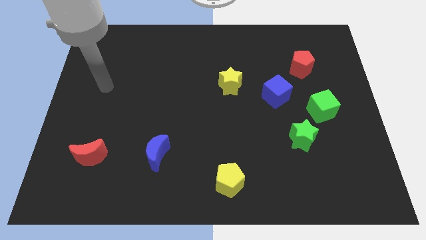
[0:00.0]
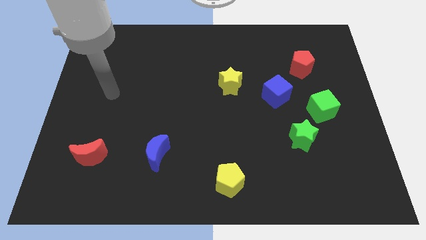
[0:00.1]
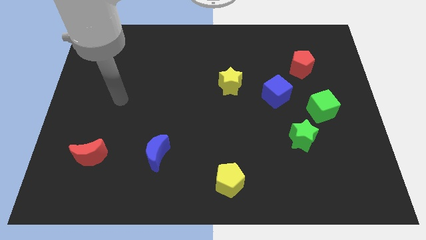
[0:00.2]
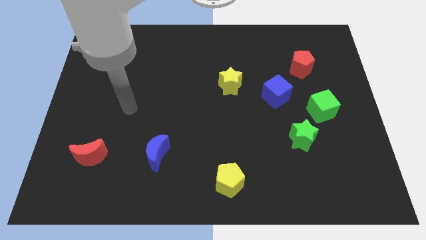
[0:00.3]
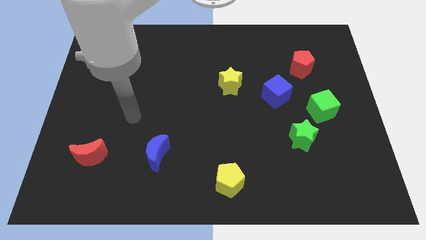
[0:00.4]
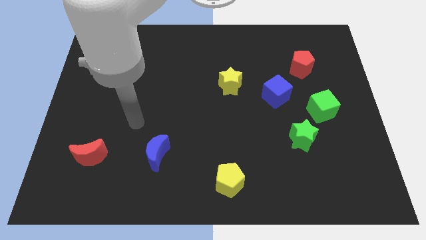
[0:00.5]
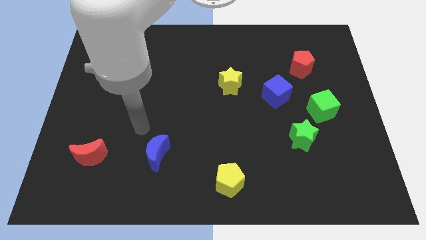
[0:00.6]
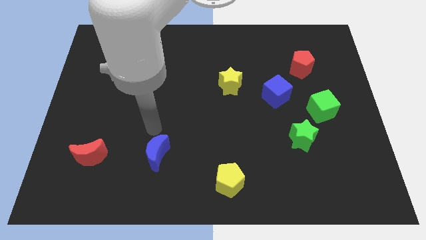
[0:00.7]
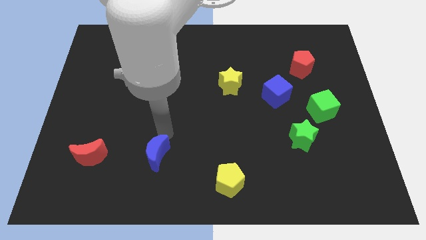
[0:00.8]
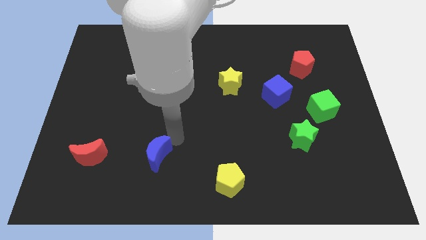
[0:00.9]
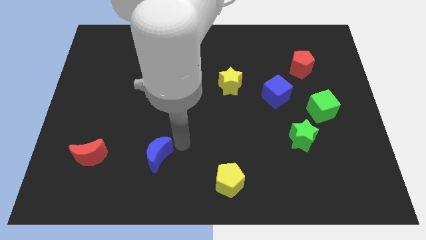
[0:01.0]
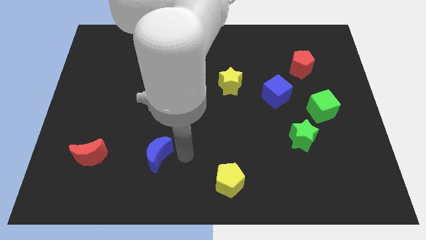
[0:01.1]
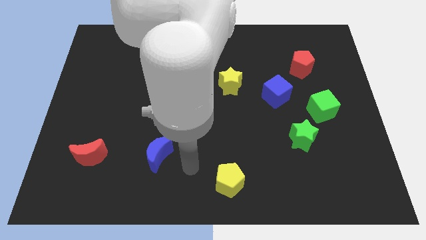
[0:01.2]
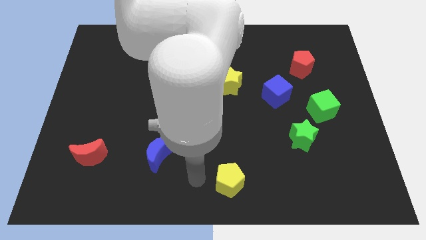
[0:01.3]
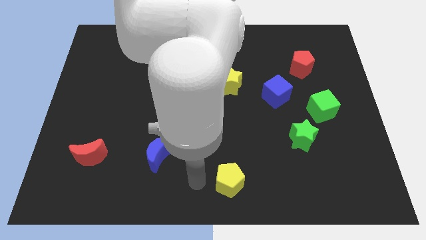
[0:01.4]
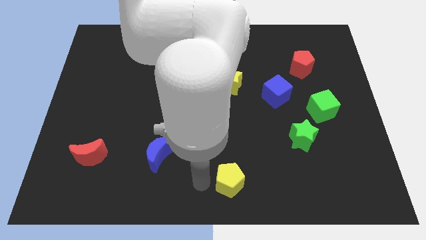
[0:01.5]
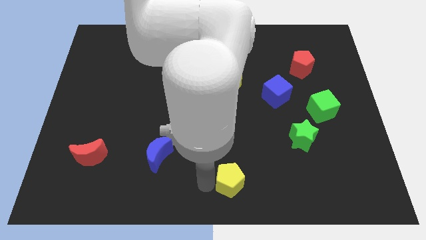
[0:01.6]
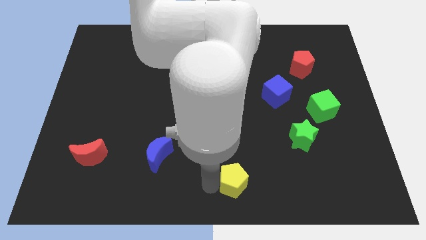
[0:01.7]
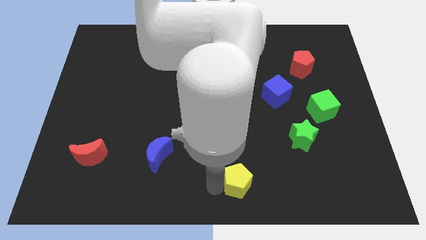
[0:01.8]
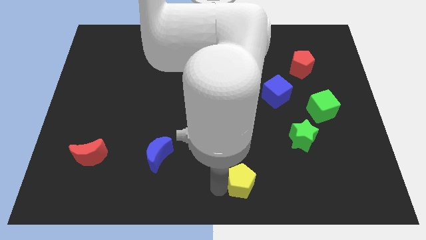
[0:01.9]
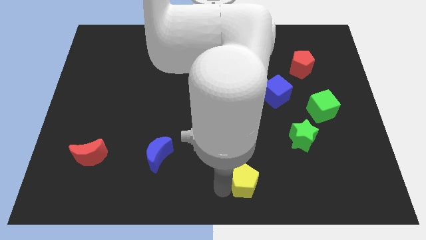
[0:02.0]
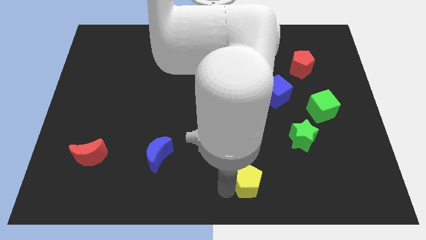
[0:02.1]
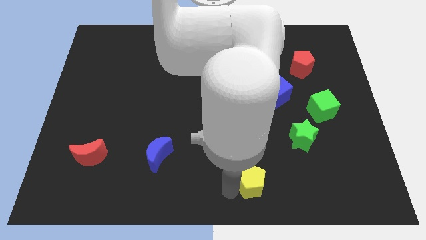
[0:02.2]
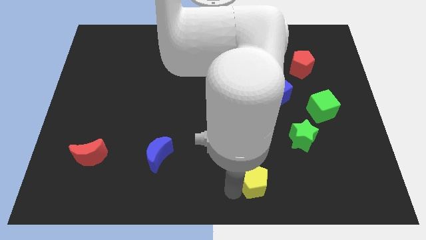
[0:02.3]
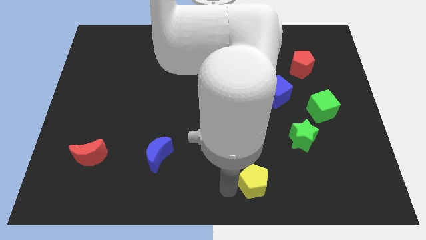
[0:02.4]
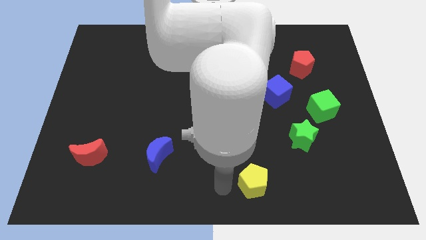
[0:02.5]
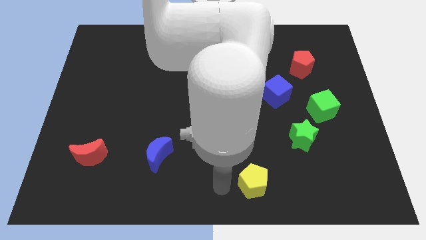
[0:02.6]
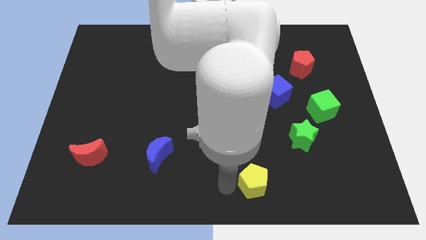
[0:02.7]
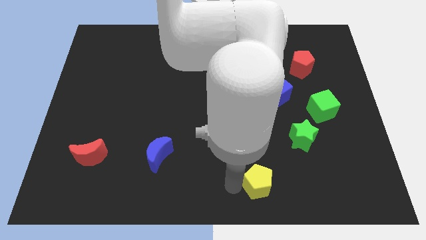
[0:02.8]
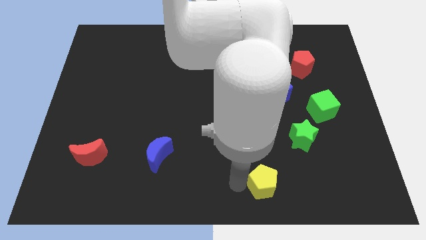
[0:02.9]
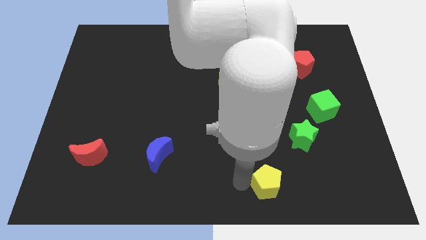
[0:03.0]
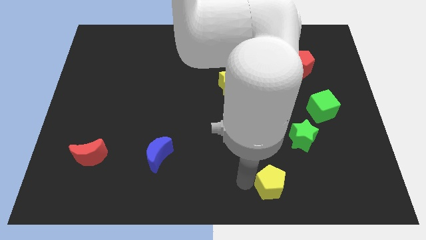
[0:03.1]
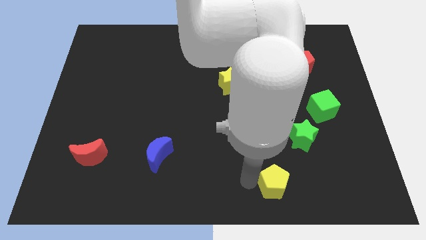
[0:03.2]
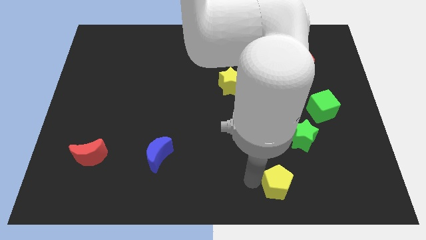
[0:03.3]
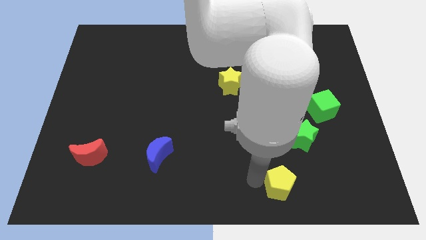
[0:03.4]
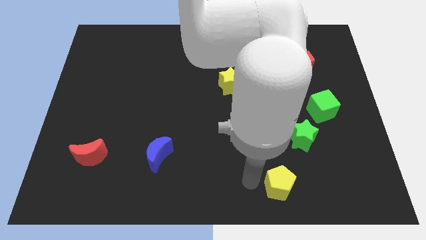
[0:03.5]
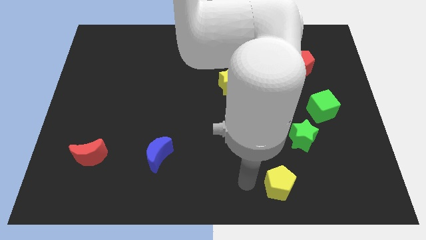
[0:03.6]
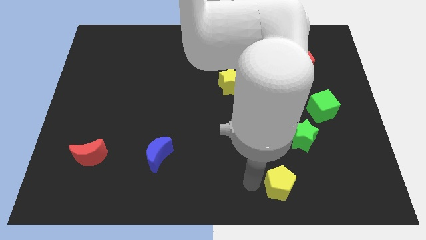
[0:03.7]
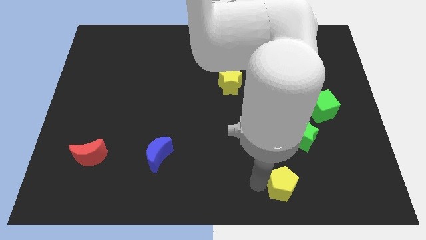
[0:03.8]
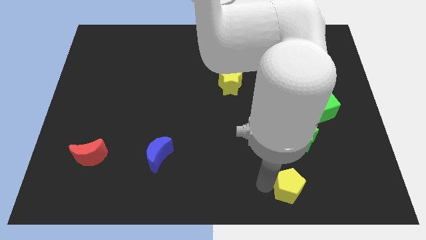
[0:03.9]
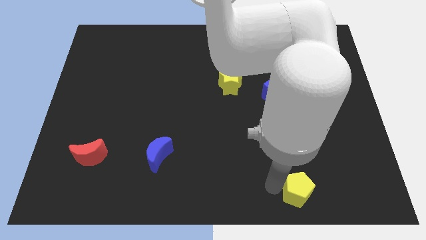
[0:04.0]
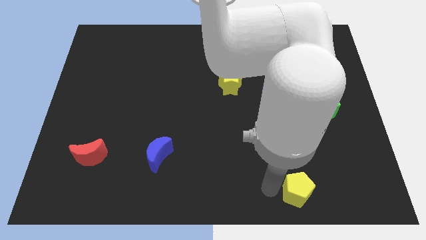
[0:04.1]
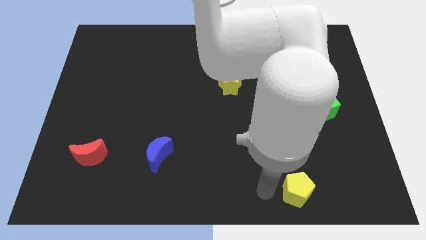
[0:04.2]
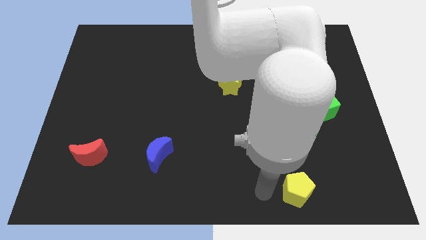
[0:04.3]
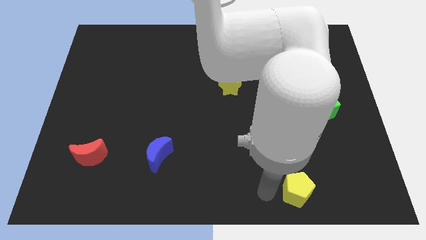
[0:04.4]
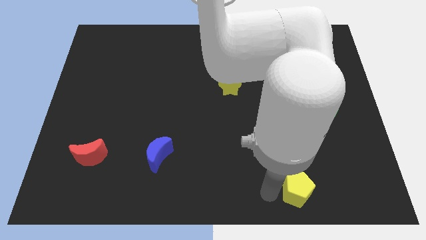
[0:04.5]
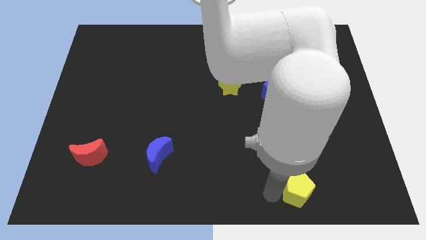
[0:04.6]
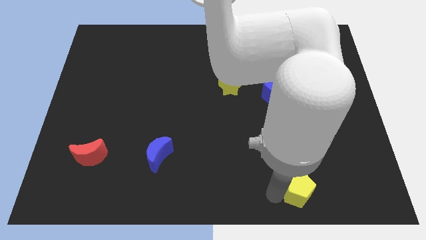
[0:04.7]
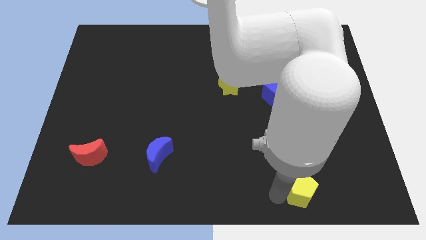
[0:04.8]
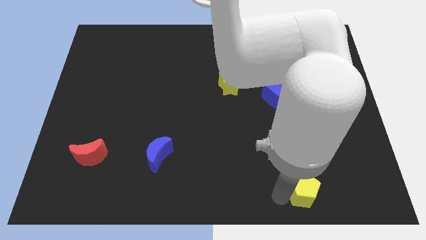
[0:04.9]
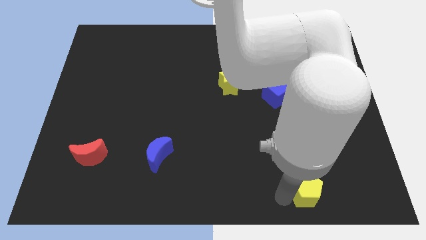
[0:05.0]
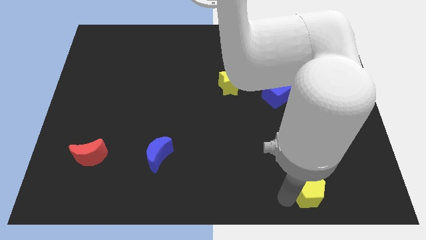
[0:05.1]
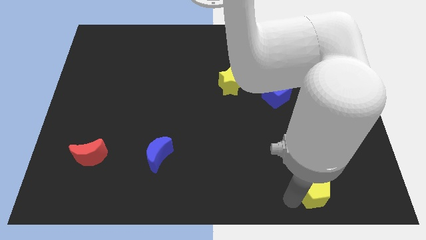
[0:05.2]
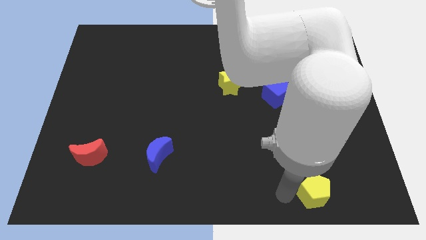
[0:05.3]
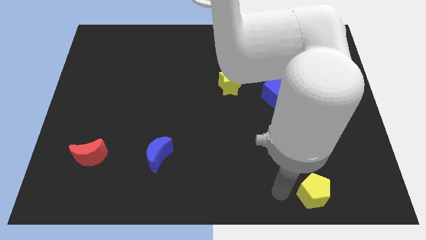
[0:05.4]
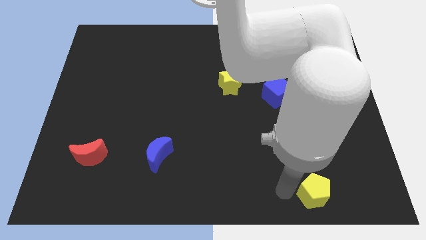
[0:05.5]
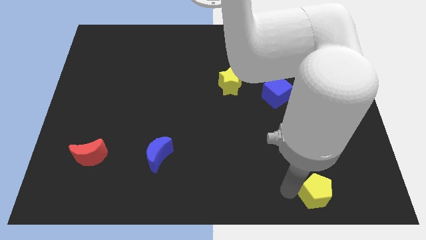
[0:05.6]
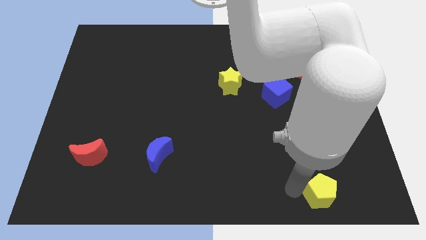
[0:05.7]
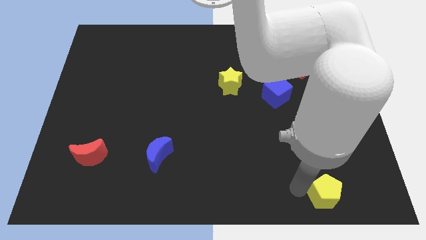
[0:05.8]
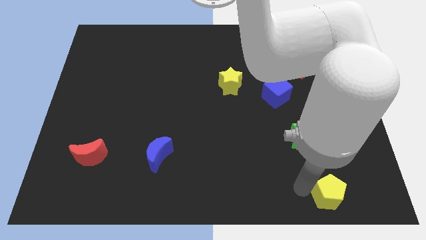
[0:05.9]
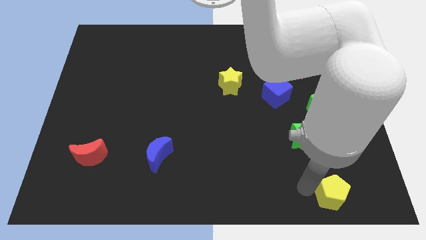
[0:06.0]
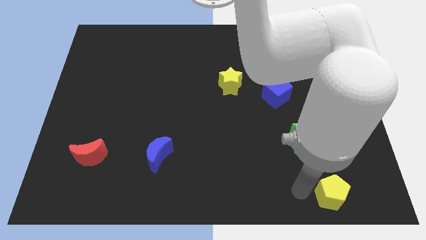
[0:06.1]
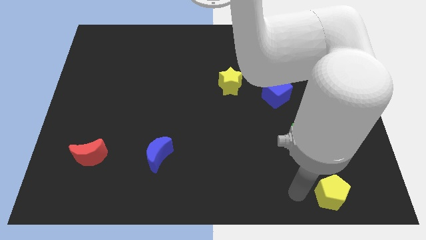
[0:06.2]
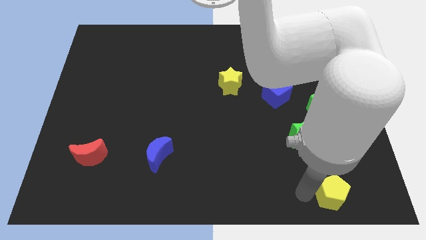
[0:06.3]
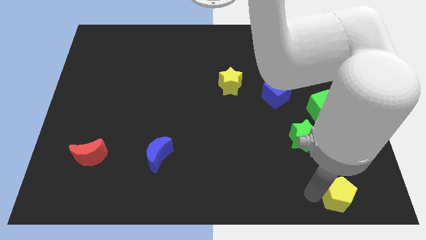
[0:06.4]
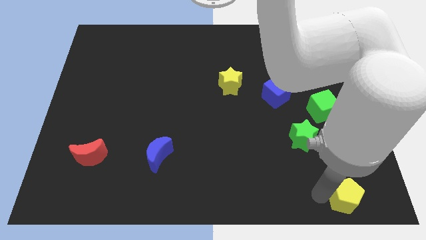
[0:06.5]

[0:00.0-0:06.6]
slide the yellow pentagon to the bottom right
